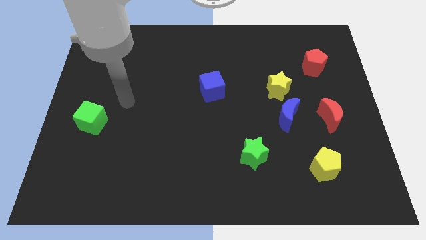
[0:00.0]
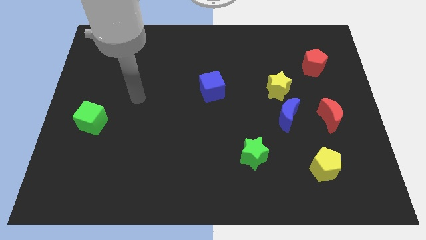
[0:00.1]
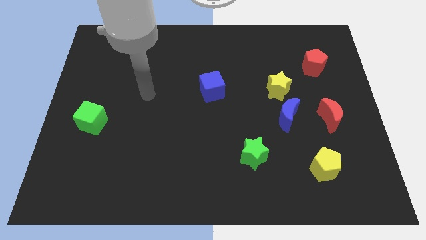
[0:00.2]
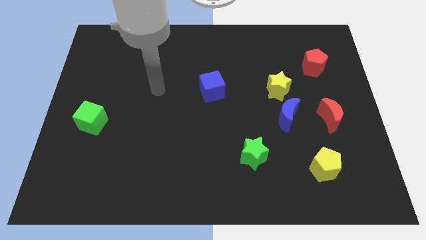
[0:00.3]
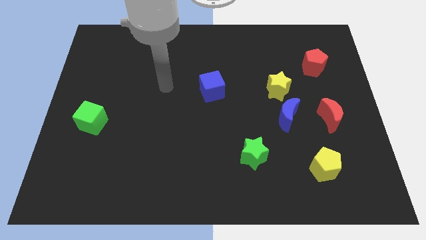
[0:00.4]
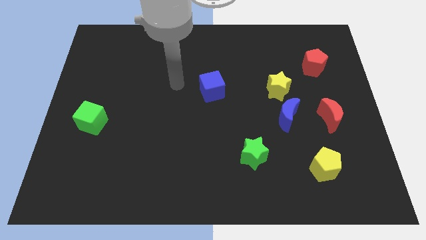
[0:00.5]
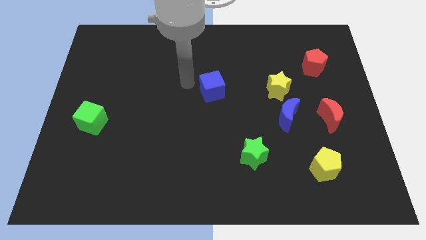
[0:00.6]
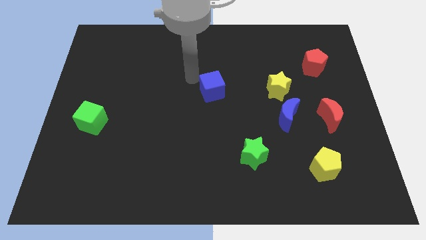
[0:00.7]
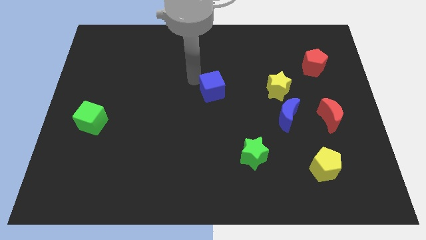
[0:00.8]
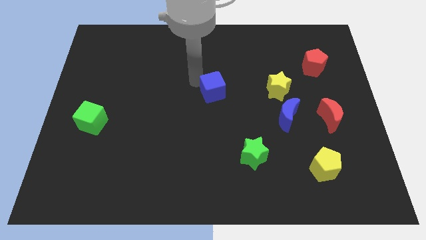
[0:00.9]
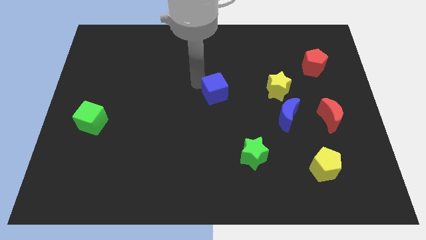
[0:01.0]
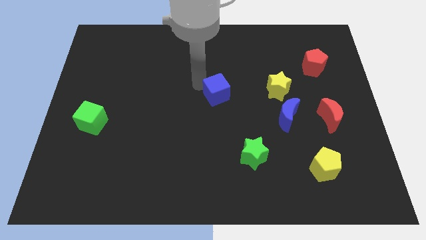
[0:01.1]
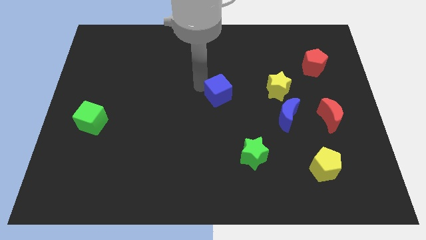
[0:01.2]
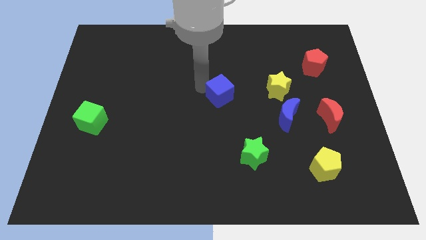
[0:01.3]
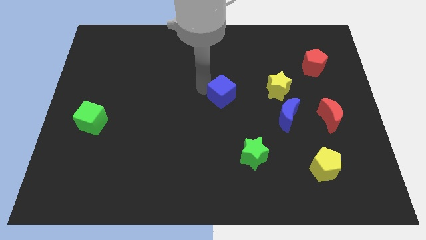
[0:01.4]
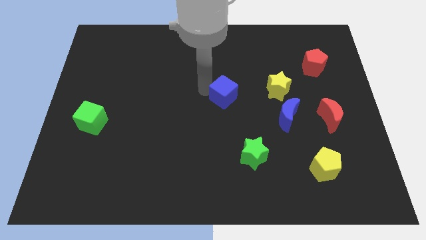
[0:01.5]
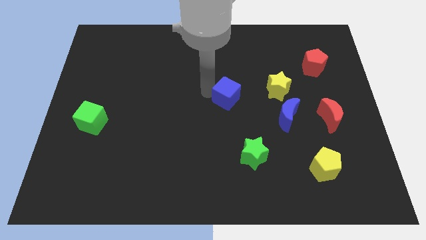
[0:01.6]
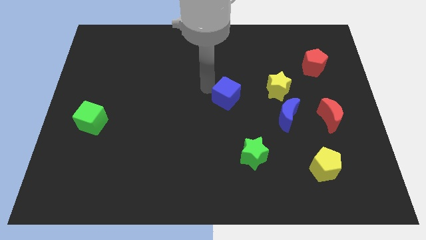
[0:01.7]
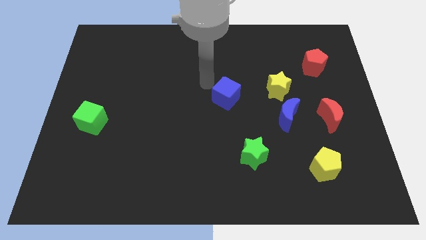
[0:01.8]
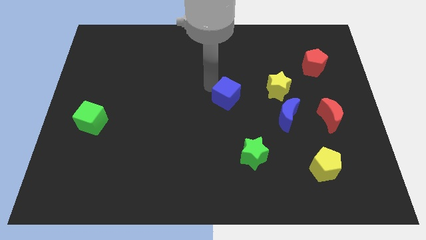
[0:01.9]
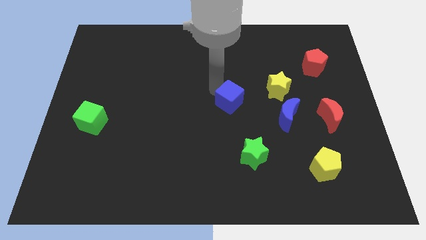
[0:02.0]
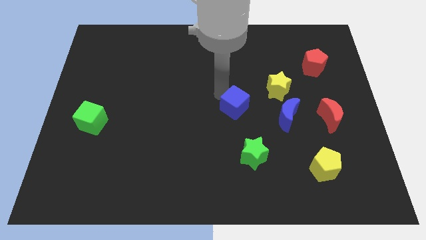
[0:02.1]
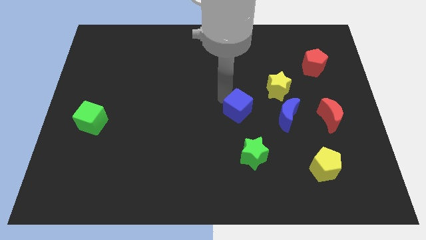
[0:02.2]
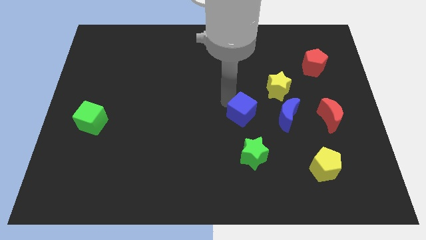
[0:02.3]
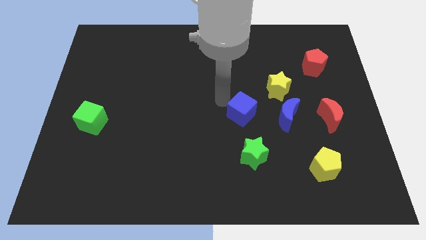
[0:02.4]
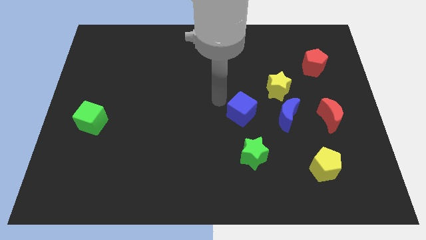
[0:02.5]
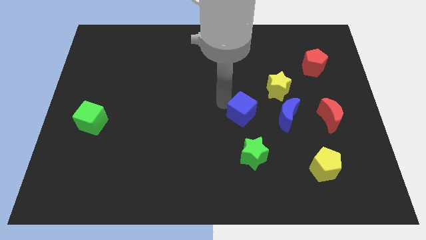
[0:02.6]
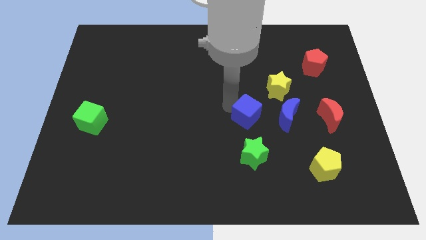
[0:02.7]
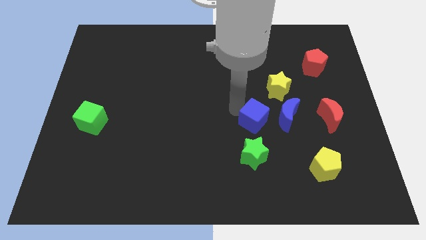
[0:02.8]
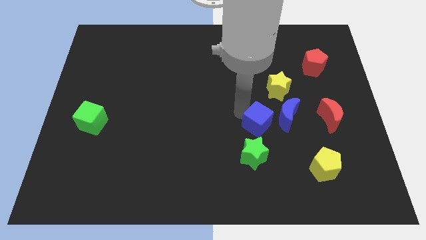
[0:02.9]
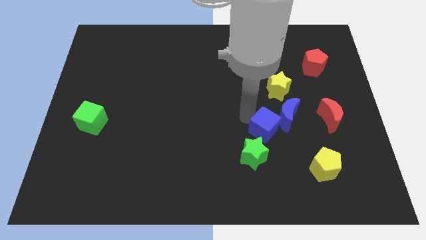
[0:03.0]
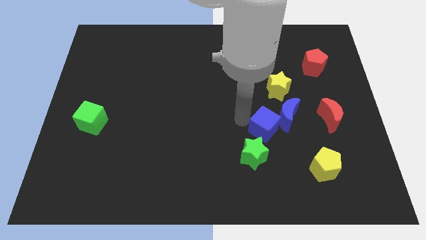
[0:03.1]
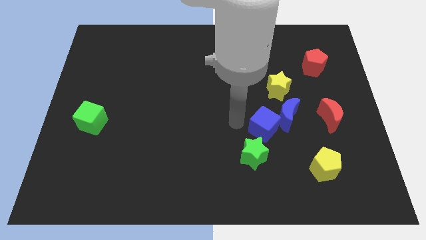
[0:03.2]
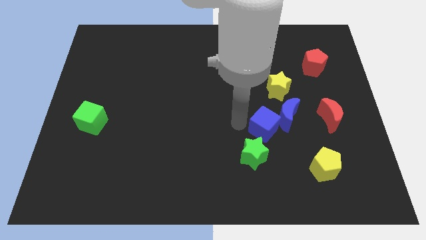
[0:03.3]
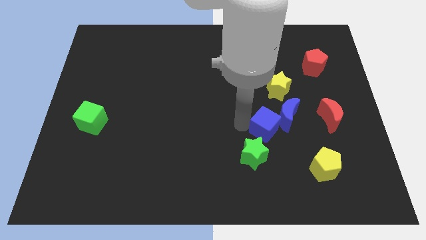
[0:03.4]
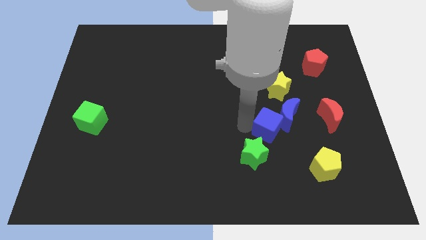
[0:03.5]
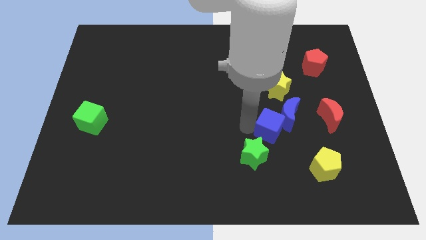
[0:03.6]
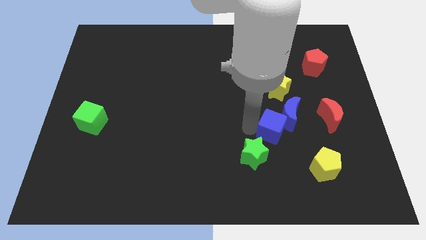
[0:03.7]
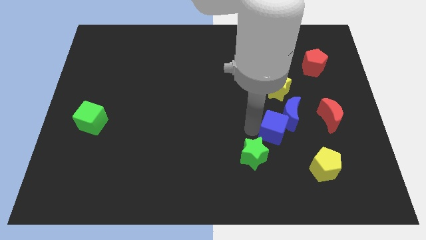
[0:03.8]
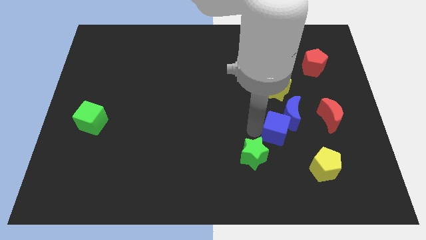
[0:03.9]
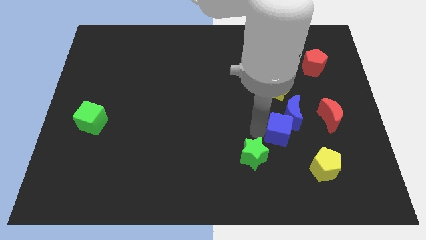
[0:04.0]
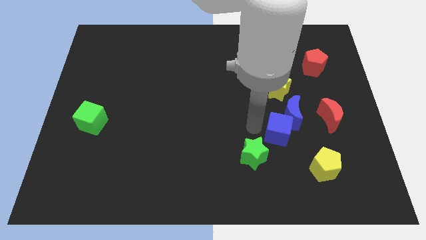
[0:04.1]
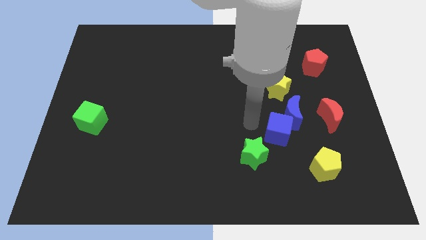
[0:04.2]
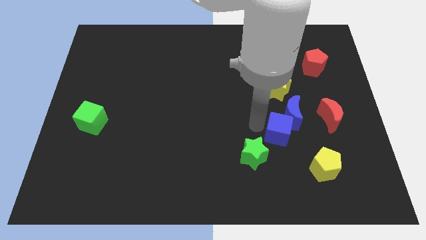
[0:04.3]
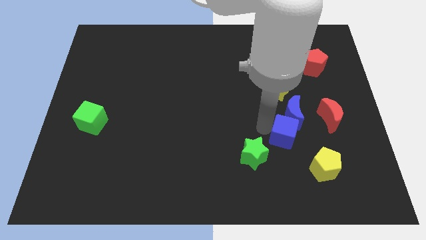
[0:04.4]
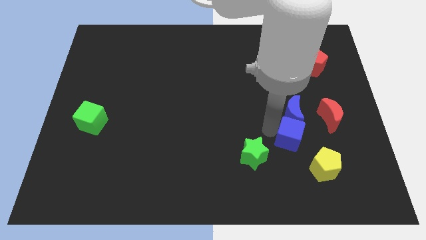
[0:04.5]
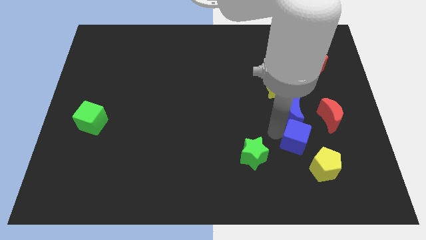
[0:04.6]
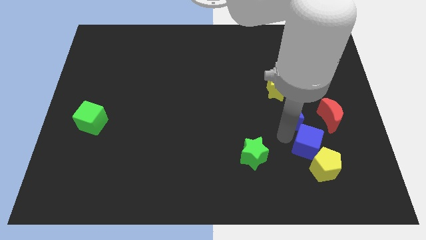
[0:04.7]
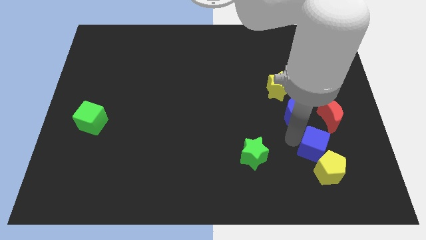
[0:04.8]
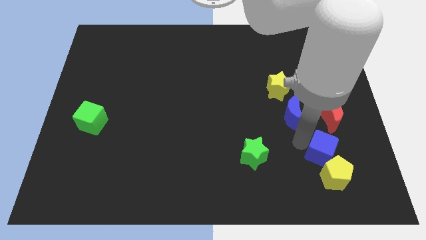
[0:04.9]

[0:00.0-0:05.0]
push the blue cube to the bottom of the red moon

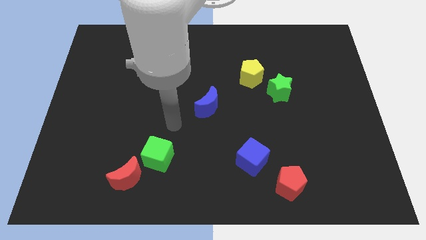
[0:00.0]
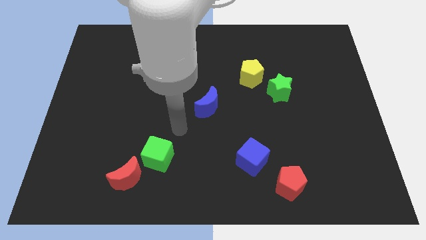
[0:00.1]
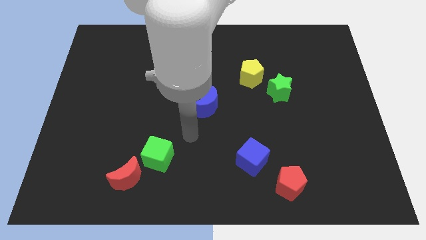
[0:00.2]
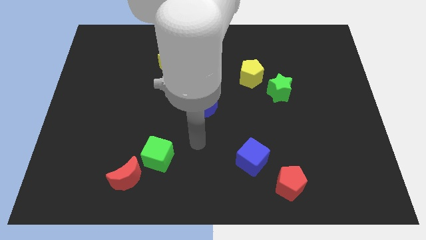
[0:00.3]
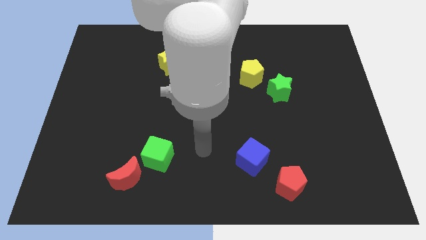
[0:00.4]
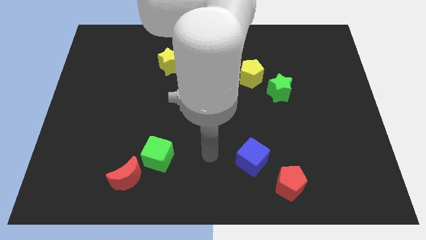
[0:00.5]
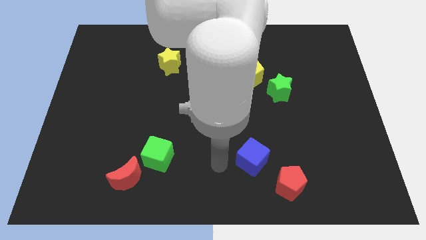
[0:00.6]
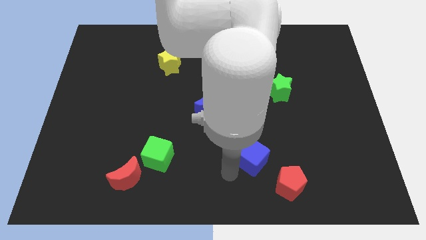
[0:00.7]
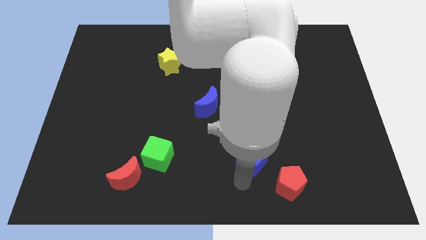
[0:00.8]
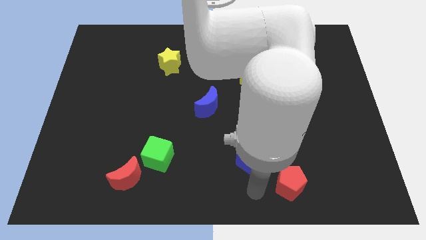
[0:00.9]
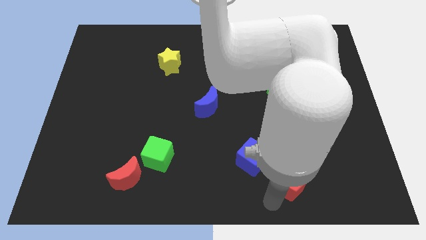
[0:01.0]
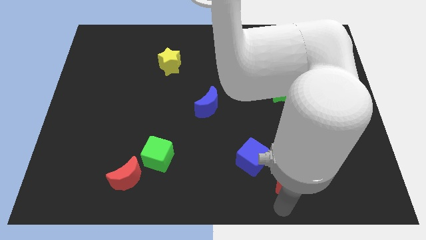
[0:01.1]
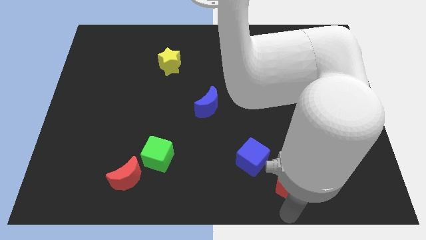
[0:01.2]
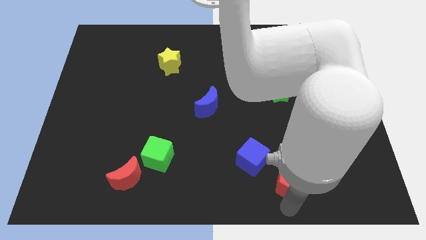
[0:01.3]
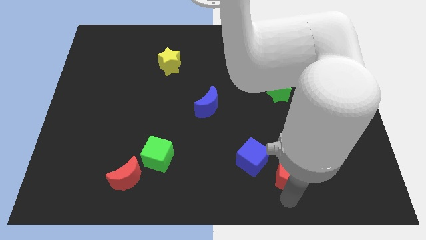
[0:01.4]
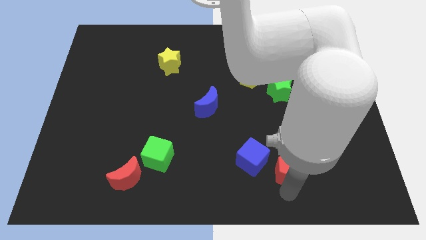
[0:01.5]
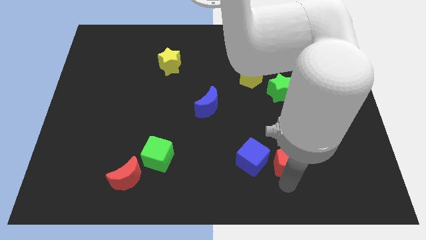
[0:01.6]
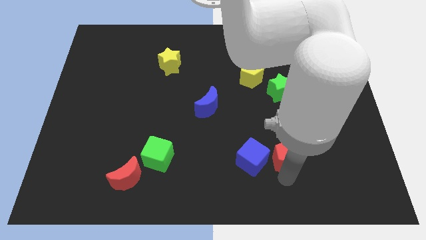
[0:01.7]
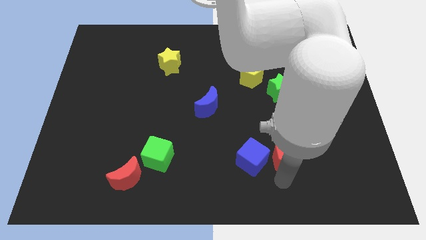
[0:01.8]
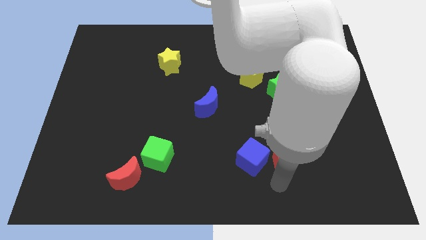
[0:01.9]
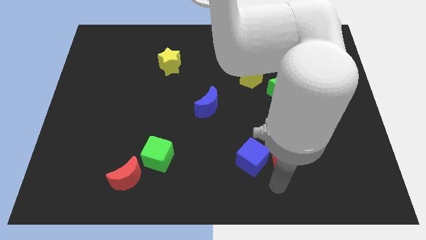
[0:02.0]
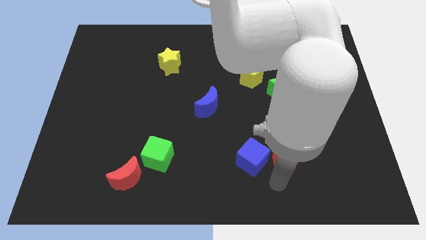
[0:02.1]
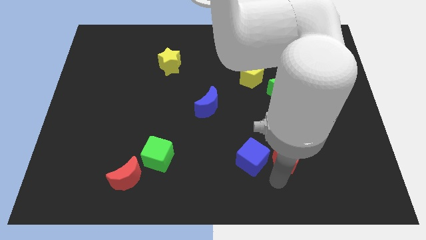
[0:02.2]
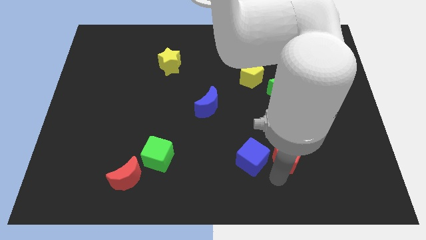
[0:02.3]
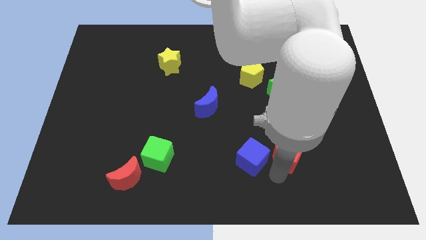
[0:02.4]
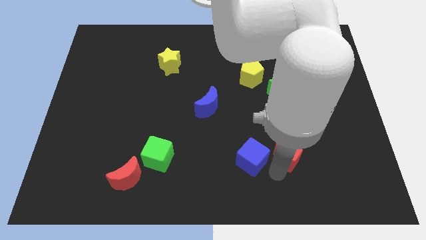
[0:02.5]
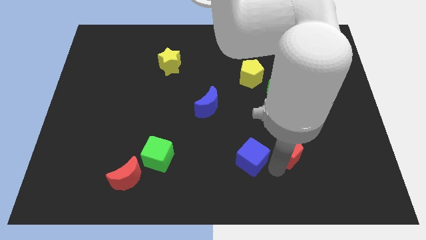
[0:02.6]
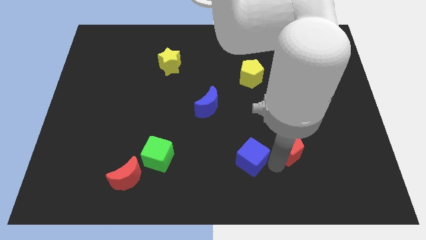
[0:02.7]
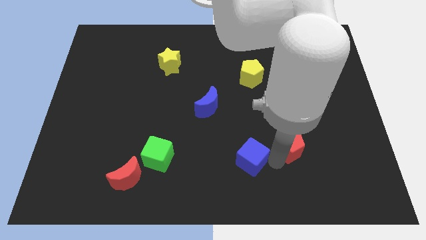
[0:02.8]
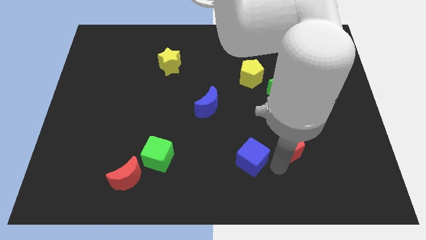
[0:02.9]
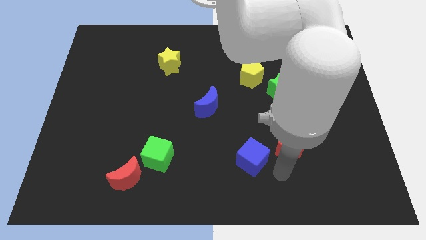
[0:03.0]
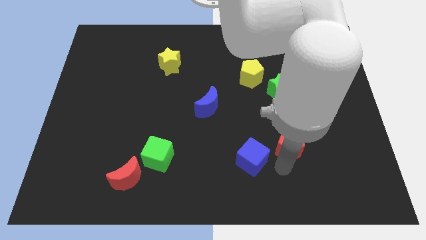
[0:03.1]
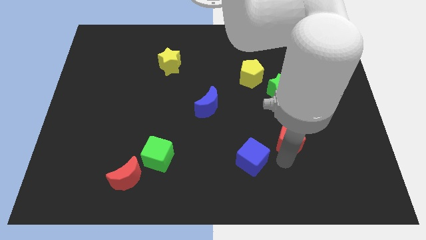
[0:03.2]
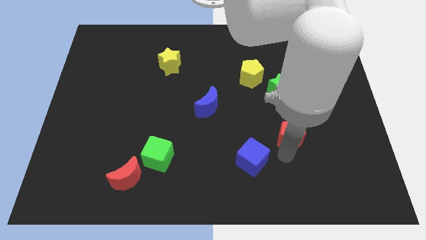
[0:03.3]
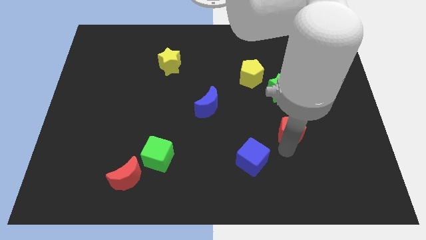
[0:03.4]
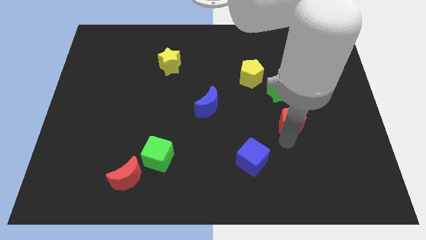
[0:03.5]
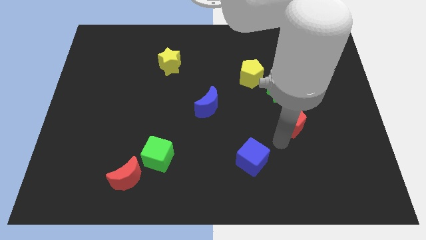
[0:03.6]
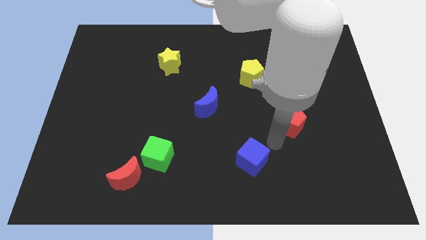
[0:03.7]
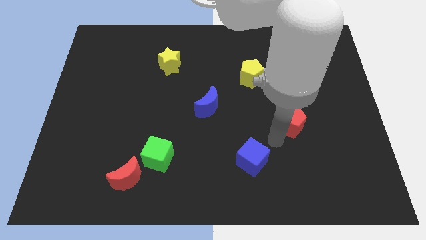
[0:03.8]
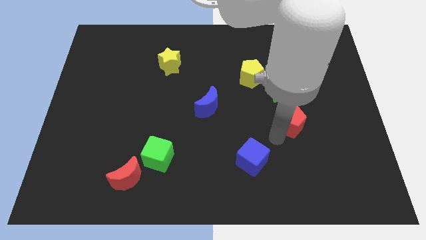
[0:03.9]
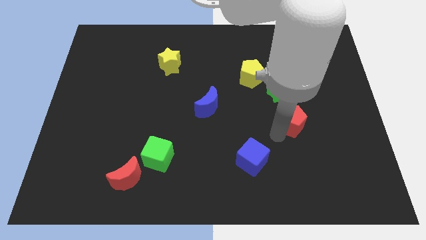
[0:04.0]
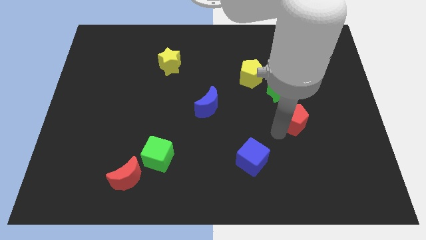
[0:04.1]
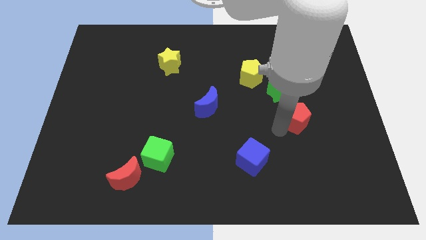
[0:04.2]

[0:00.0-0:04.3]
put the red pentagon diagonally down and to the right of the green star
